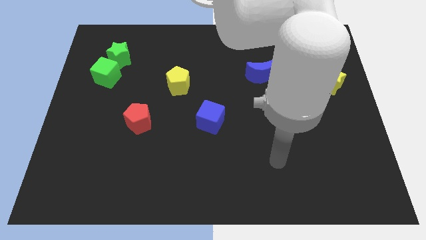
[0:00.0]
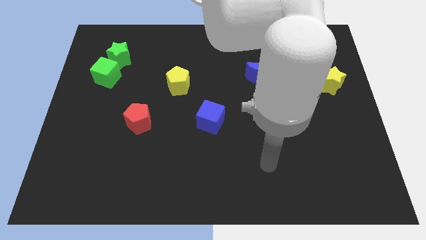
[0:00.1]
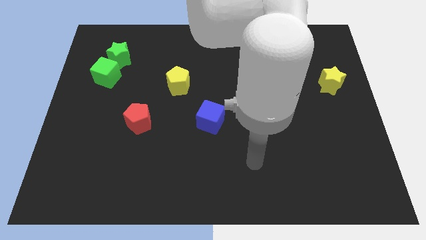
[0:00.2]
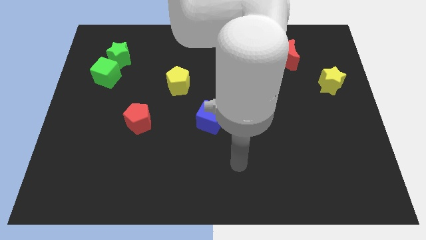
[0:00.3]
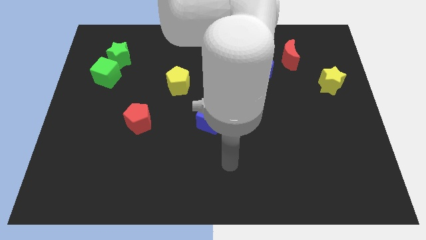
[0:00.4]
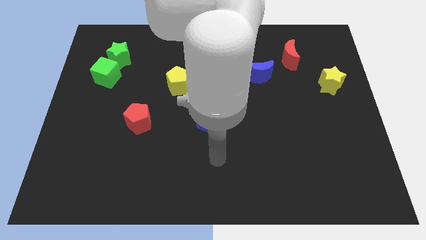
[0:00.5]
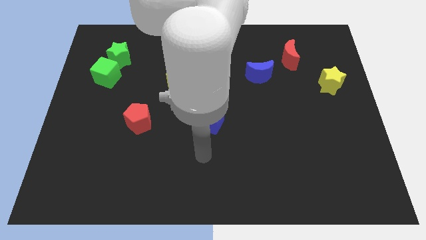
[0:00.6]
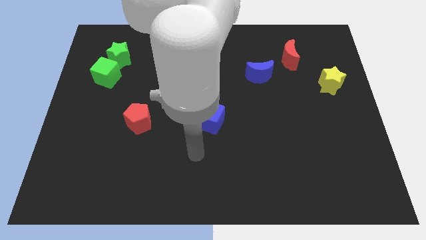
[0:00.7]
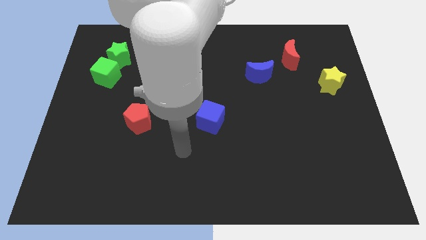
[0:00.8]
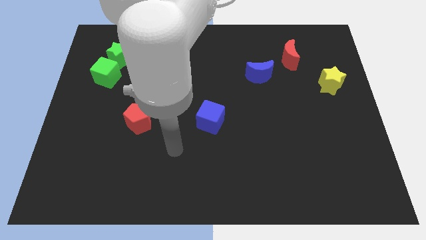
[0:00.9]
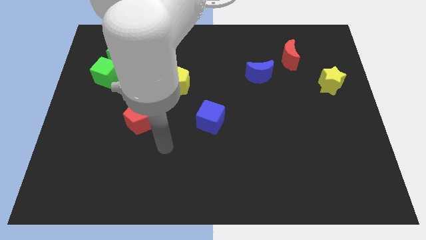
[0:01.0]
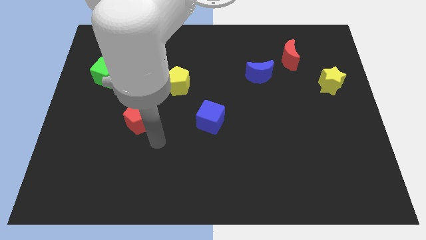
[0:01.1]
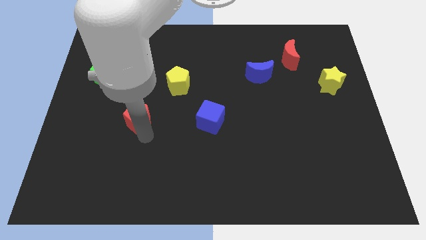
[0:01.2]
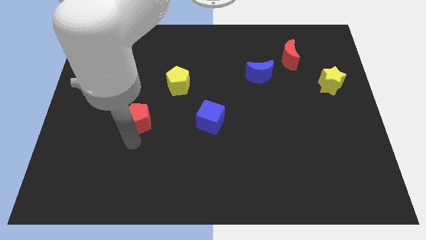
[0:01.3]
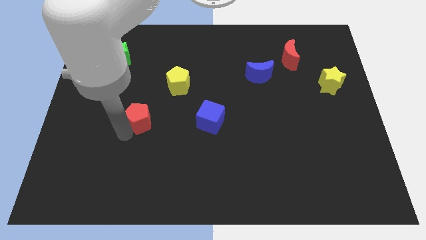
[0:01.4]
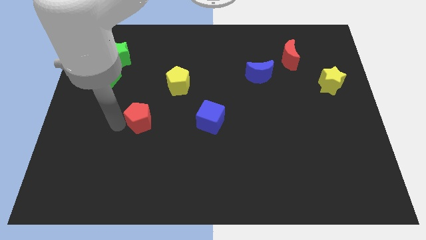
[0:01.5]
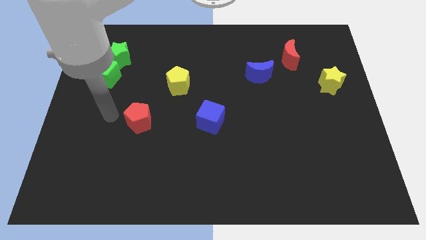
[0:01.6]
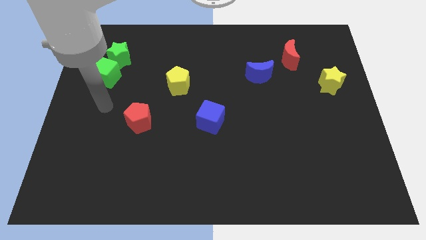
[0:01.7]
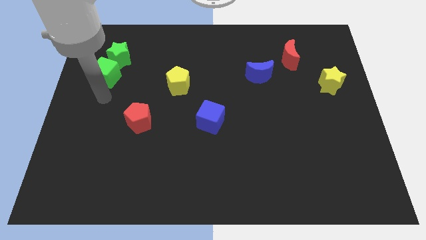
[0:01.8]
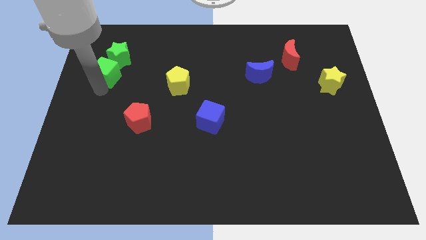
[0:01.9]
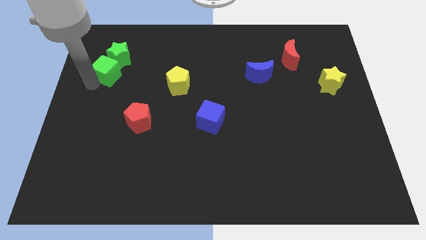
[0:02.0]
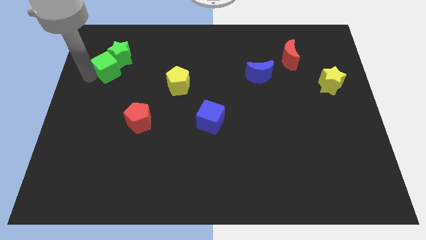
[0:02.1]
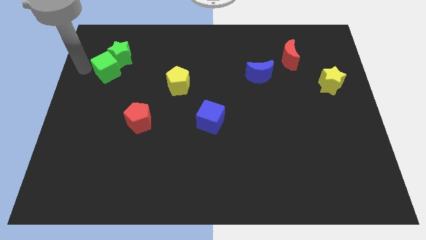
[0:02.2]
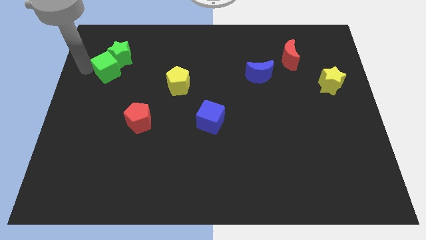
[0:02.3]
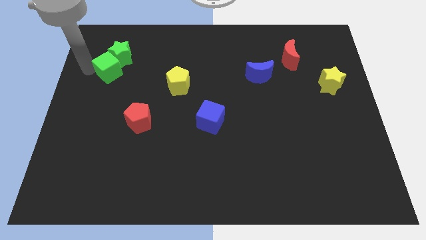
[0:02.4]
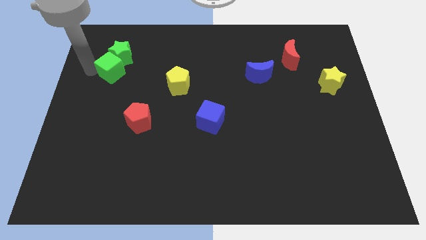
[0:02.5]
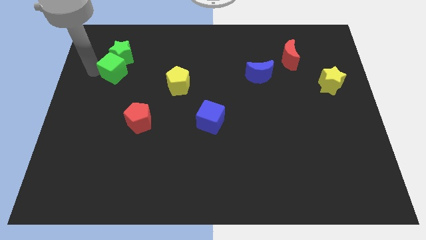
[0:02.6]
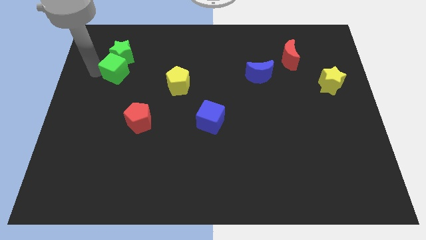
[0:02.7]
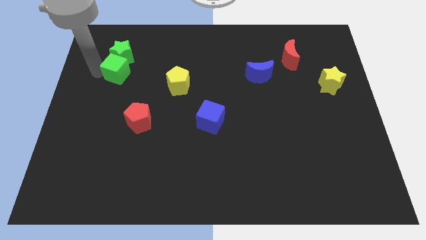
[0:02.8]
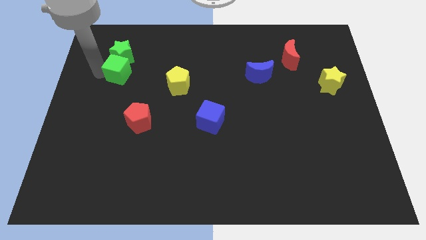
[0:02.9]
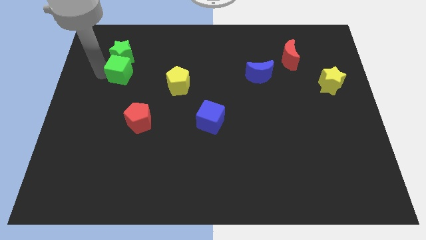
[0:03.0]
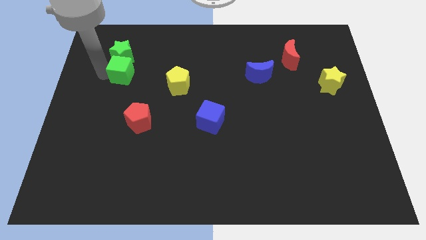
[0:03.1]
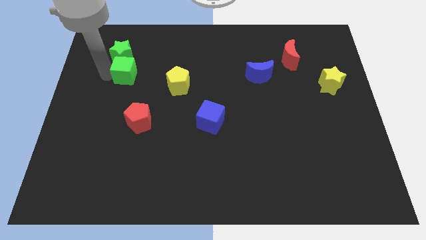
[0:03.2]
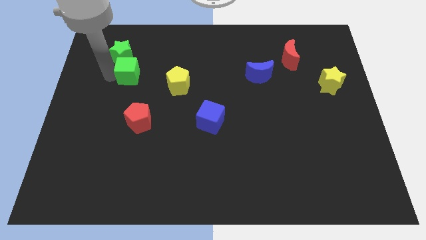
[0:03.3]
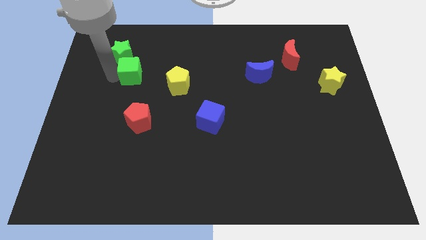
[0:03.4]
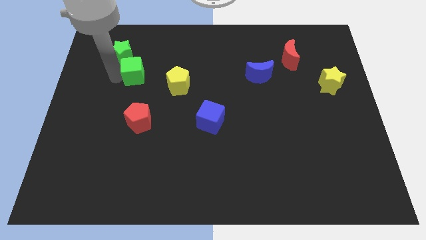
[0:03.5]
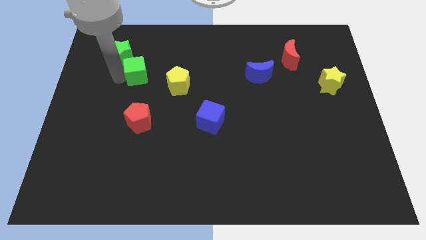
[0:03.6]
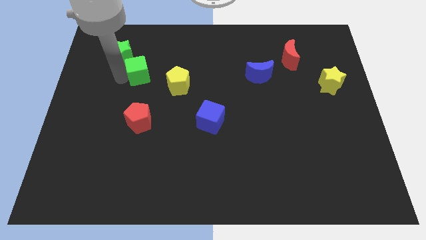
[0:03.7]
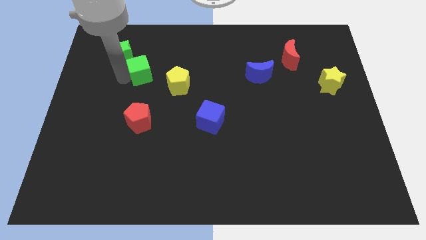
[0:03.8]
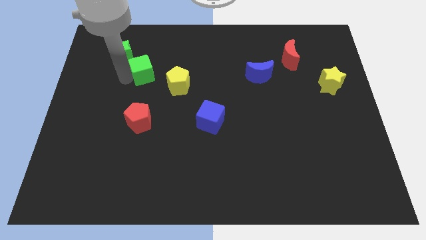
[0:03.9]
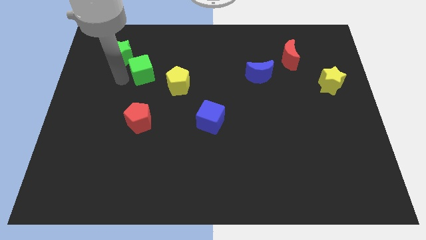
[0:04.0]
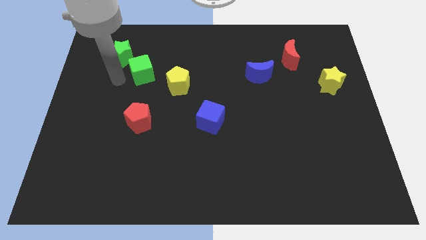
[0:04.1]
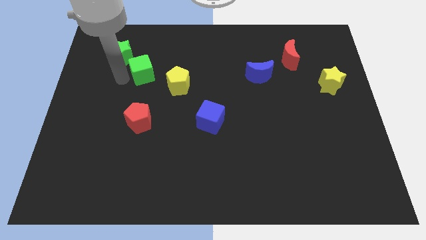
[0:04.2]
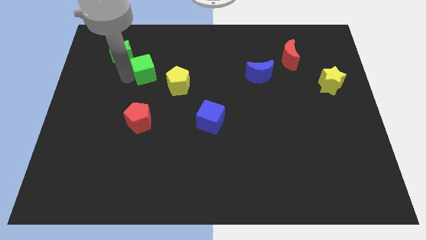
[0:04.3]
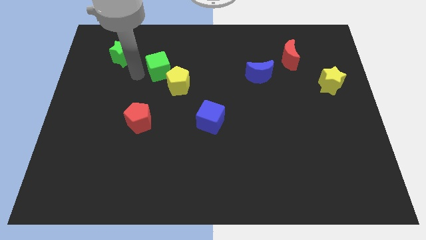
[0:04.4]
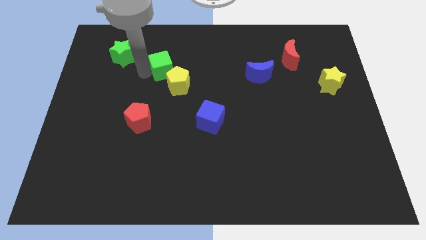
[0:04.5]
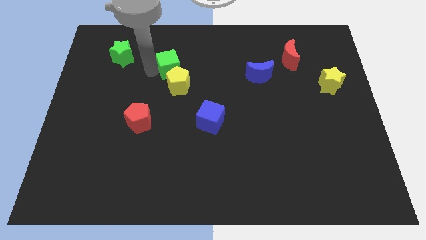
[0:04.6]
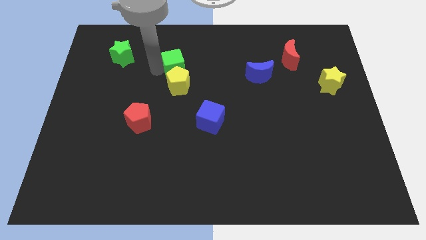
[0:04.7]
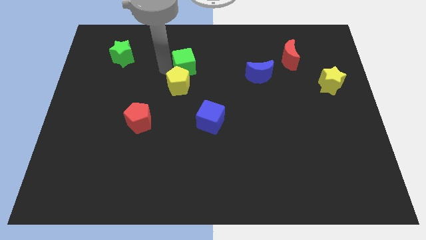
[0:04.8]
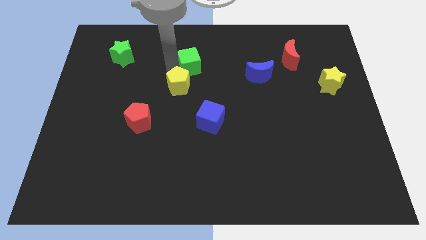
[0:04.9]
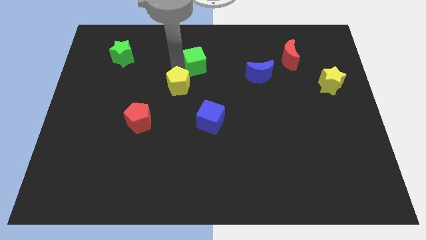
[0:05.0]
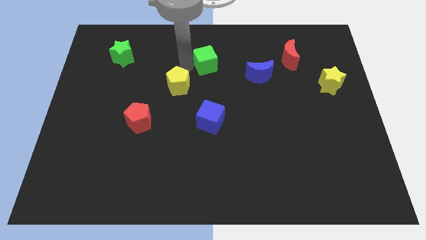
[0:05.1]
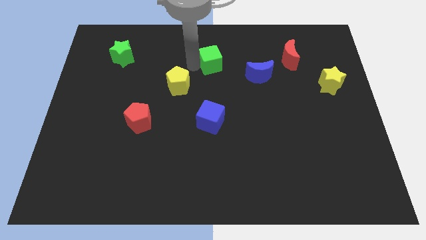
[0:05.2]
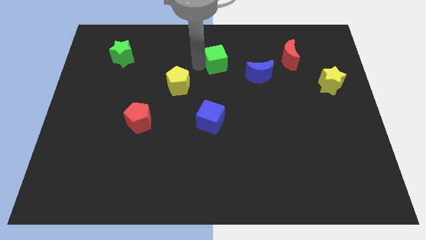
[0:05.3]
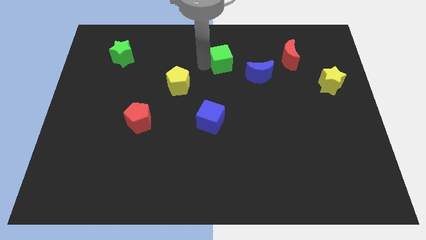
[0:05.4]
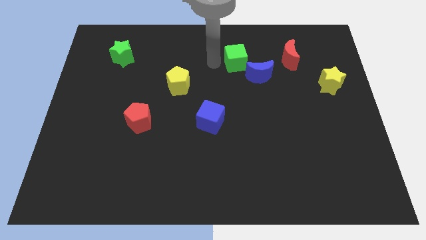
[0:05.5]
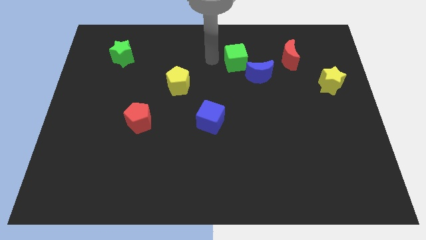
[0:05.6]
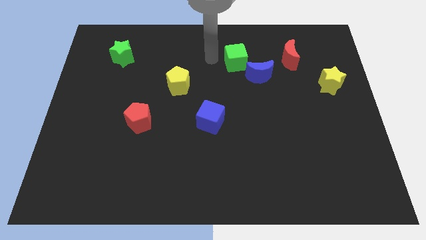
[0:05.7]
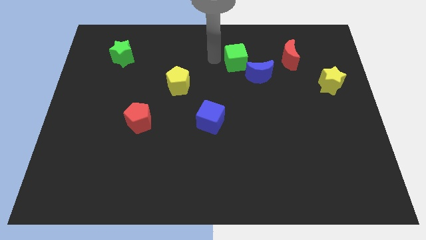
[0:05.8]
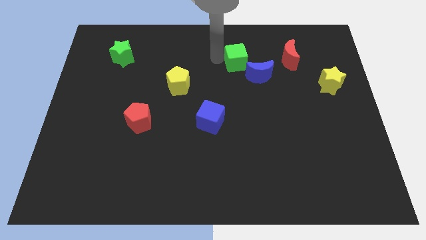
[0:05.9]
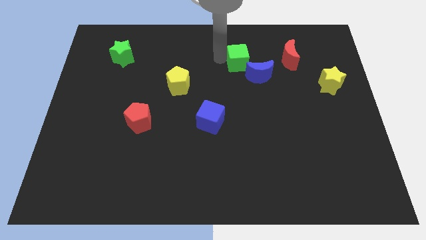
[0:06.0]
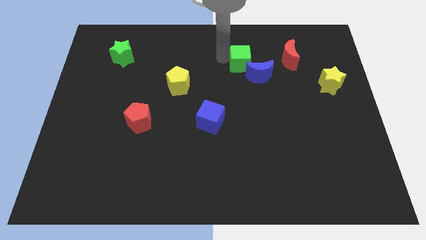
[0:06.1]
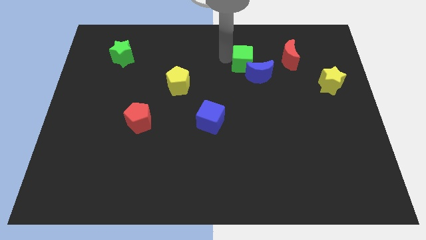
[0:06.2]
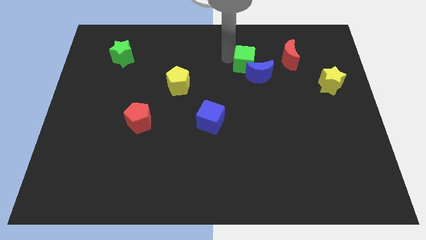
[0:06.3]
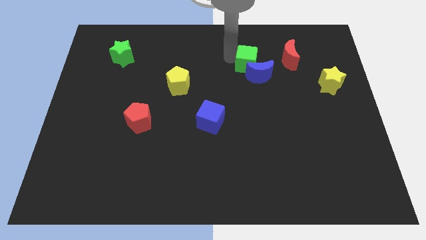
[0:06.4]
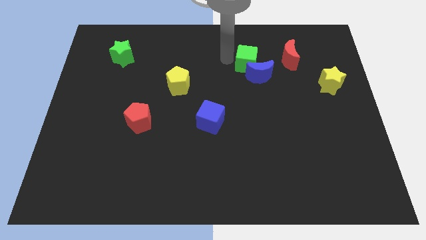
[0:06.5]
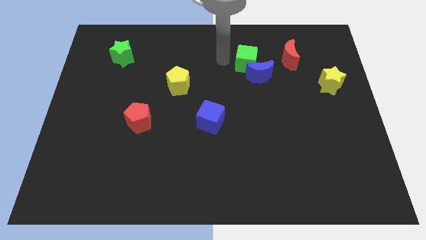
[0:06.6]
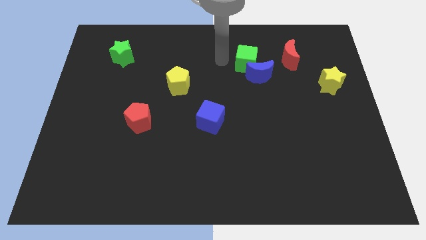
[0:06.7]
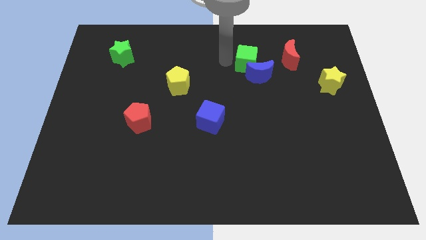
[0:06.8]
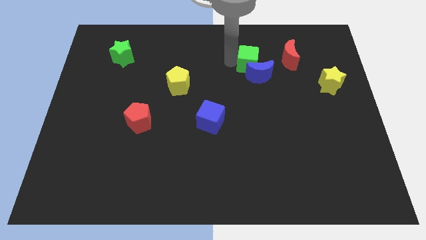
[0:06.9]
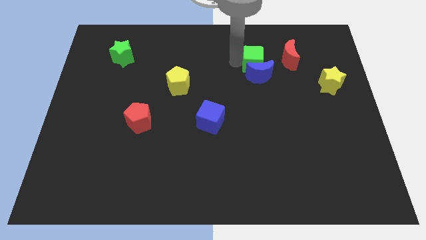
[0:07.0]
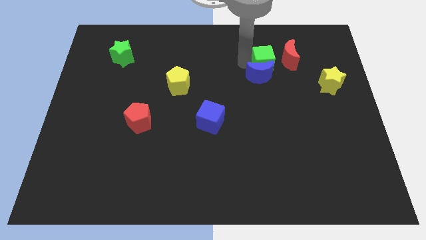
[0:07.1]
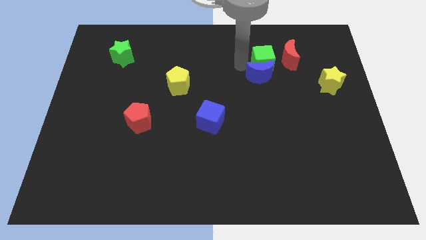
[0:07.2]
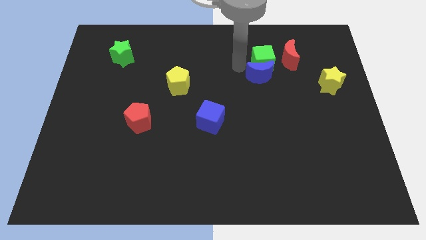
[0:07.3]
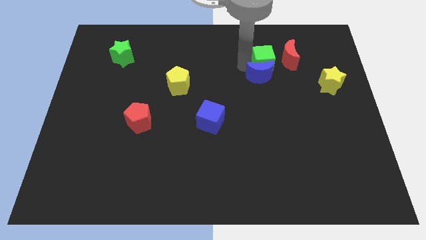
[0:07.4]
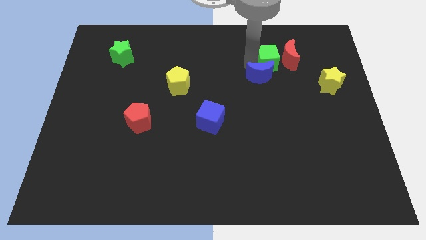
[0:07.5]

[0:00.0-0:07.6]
put the green cube close to the red moon

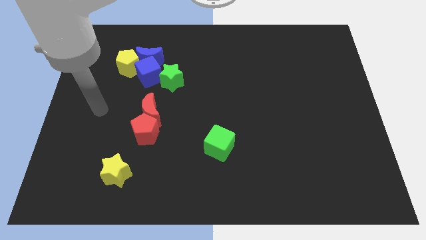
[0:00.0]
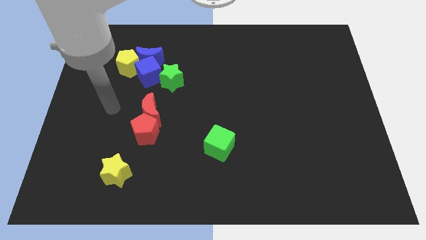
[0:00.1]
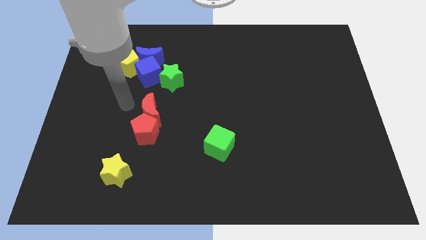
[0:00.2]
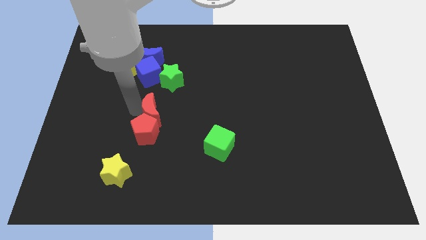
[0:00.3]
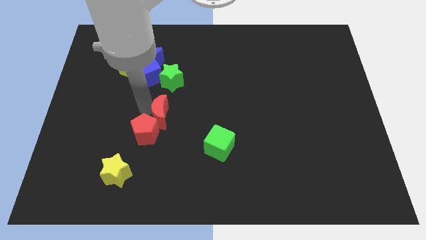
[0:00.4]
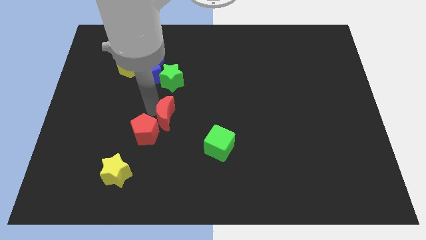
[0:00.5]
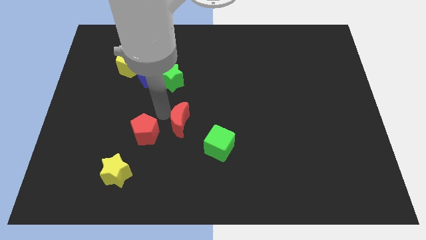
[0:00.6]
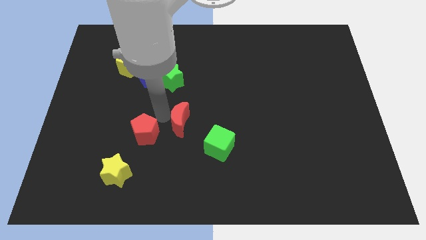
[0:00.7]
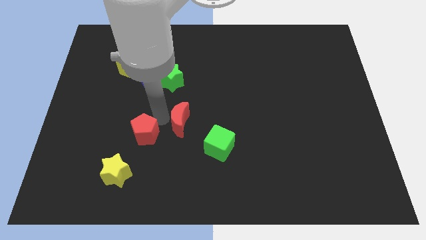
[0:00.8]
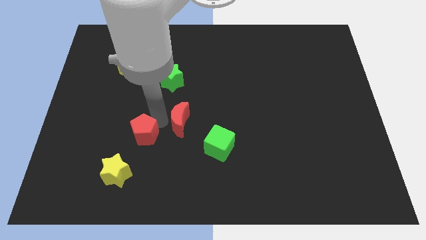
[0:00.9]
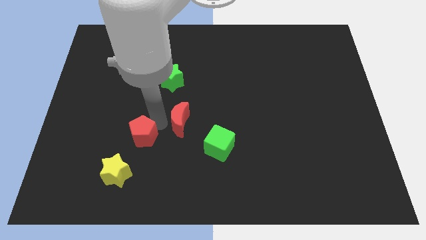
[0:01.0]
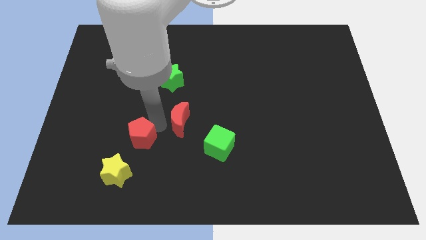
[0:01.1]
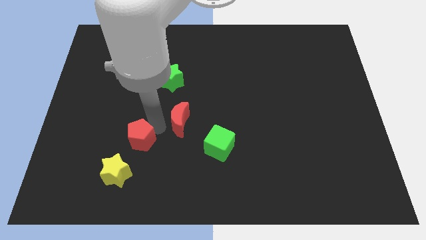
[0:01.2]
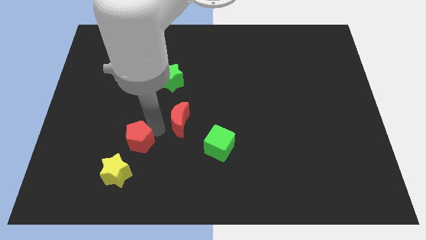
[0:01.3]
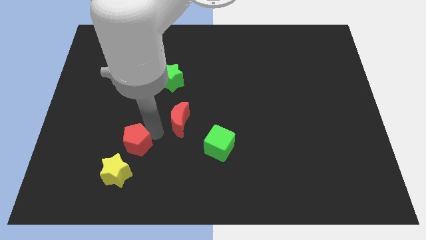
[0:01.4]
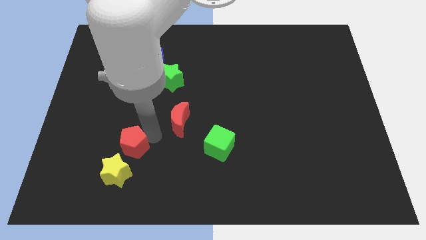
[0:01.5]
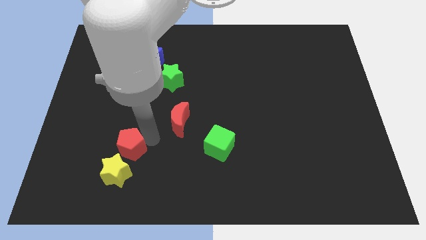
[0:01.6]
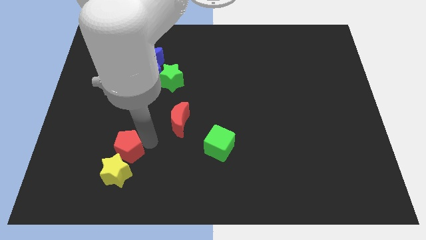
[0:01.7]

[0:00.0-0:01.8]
move the red pentagon next to the yellow star
